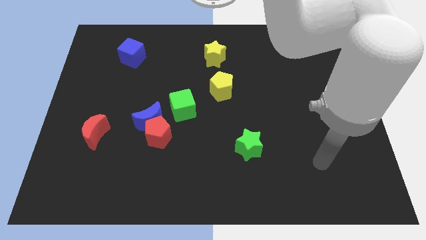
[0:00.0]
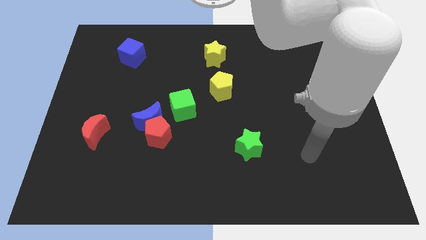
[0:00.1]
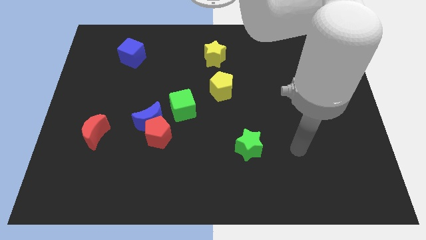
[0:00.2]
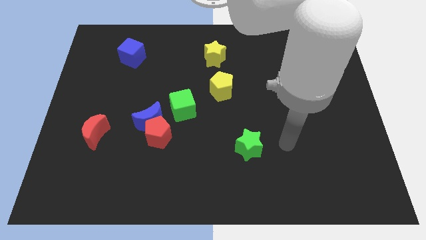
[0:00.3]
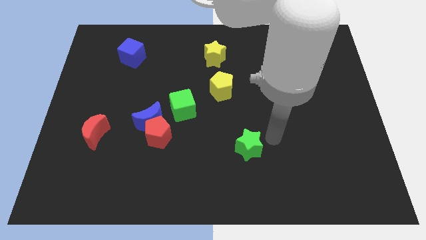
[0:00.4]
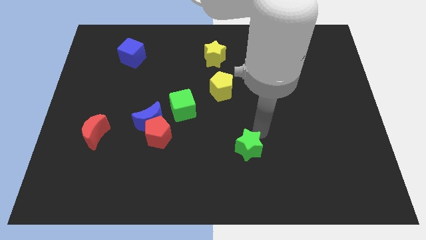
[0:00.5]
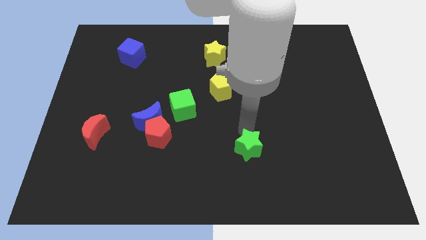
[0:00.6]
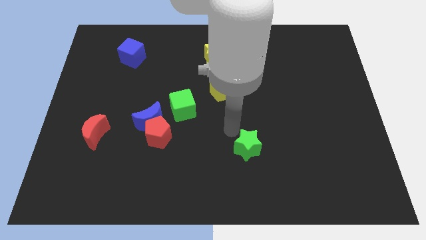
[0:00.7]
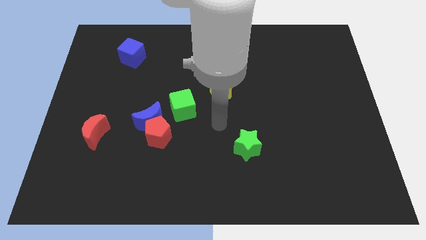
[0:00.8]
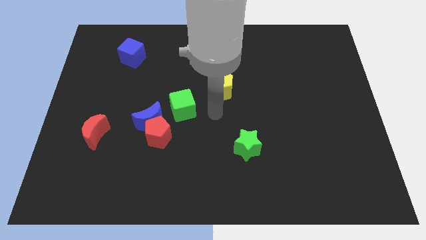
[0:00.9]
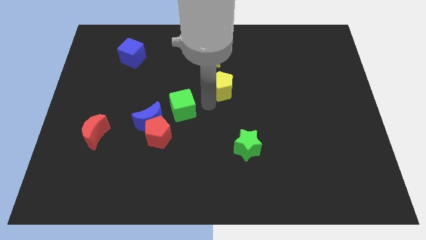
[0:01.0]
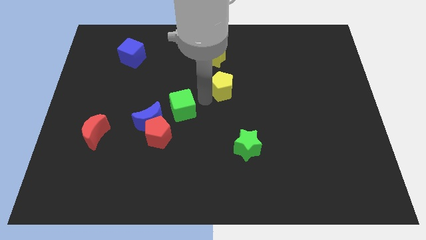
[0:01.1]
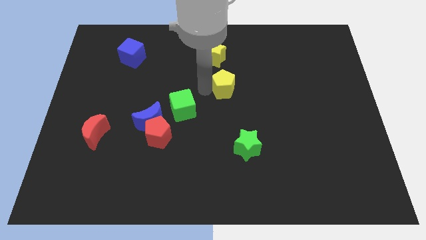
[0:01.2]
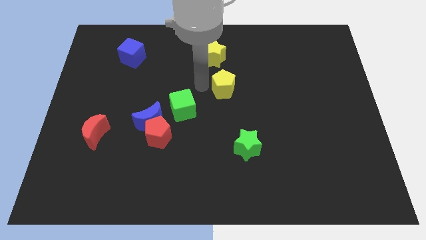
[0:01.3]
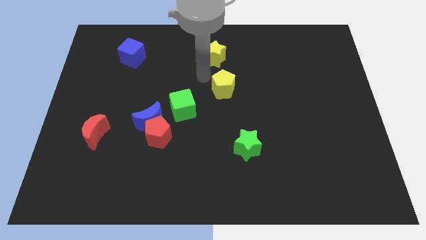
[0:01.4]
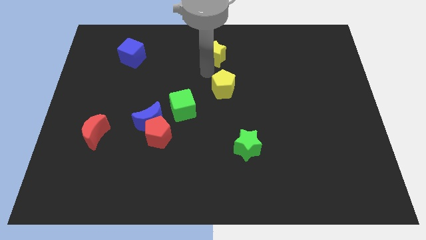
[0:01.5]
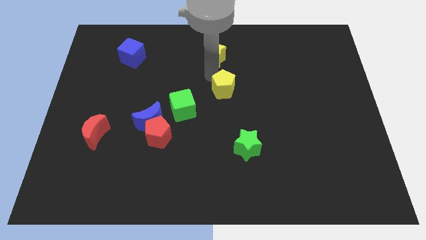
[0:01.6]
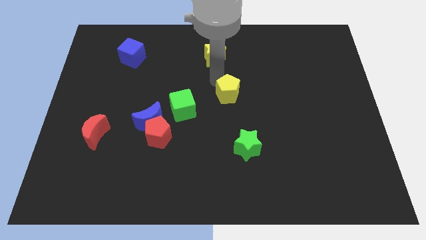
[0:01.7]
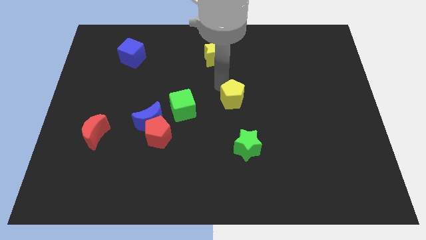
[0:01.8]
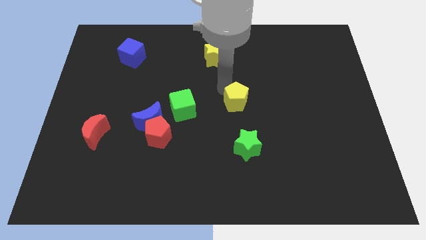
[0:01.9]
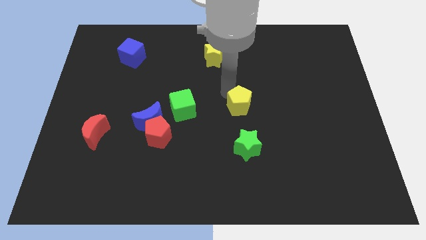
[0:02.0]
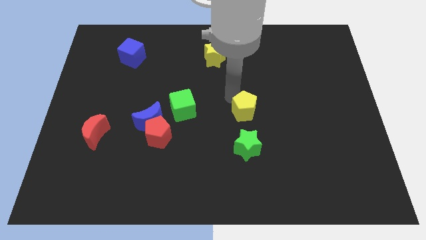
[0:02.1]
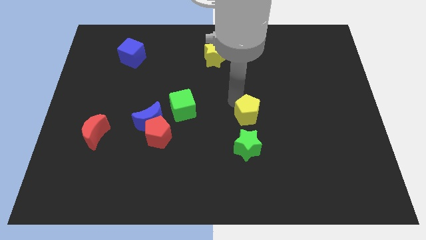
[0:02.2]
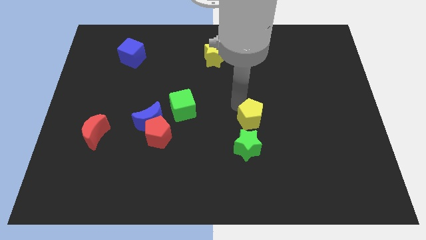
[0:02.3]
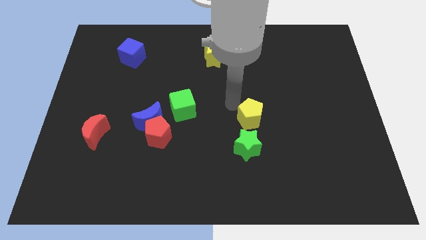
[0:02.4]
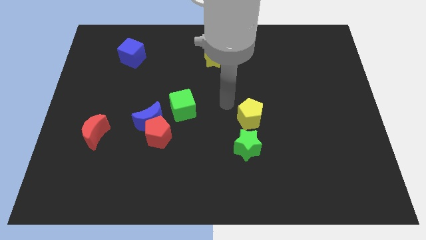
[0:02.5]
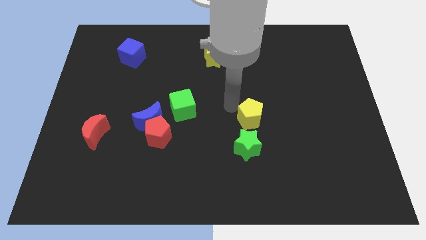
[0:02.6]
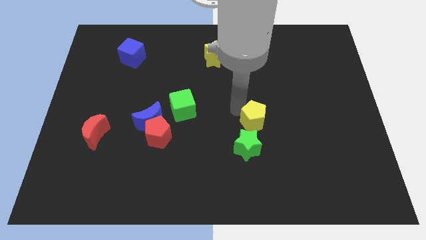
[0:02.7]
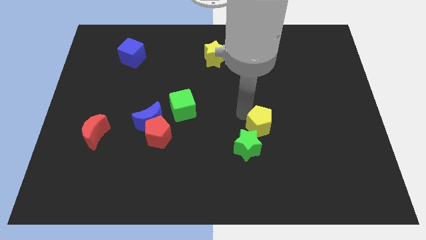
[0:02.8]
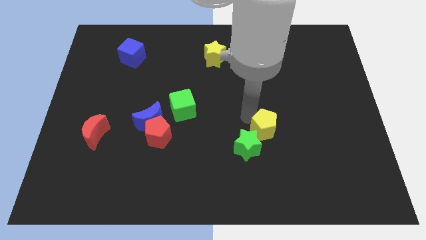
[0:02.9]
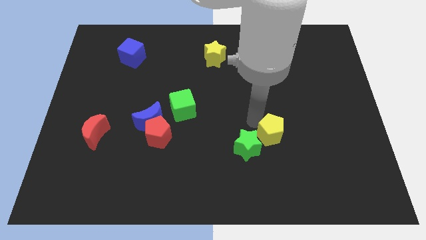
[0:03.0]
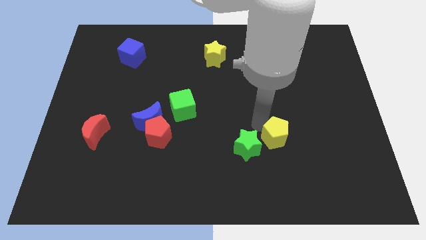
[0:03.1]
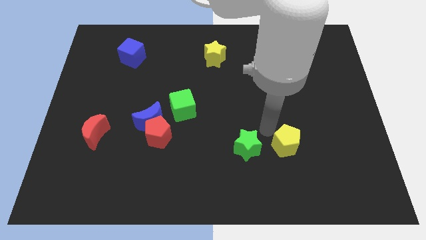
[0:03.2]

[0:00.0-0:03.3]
move the yellow pentagon diagonally downwards and to the right

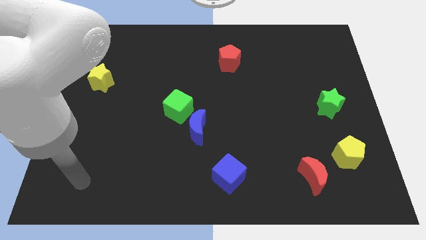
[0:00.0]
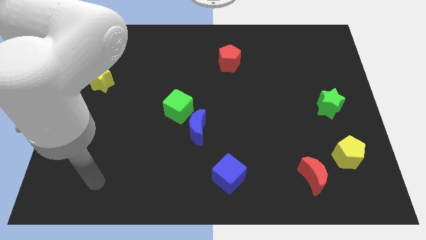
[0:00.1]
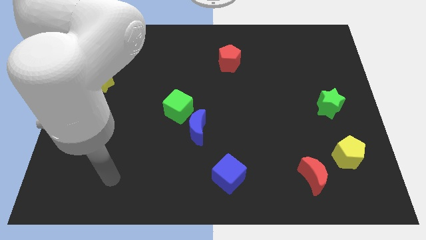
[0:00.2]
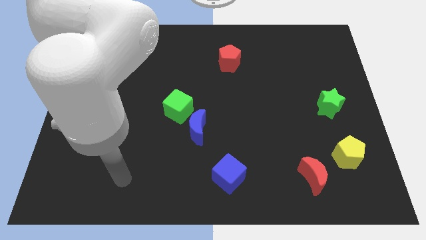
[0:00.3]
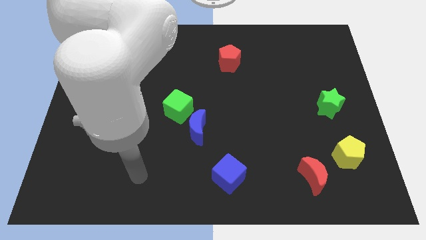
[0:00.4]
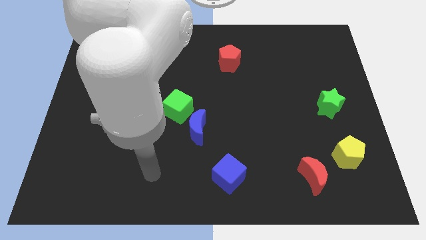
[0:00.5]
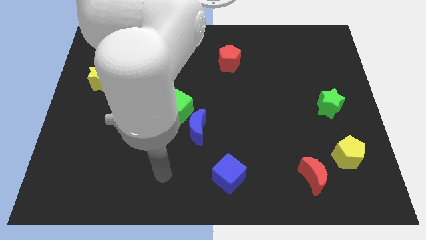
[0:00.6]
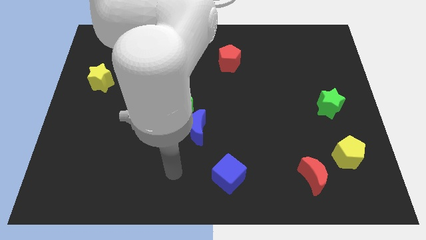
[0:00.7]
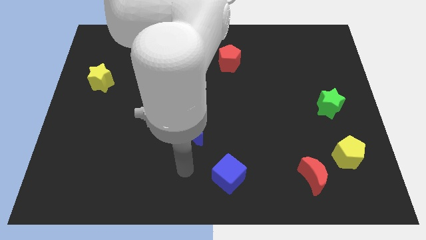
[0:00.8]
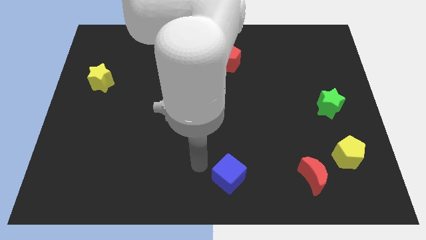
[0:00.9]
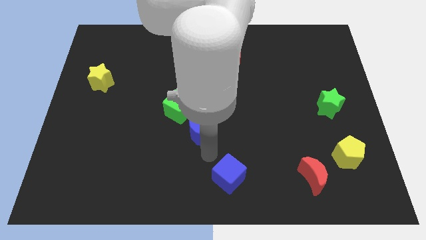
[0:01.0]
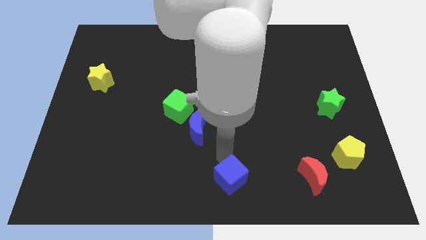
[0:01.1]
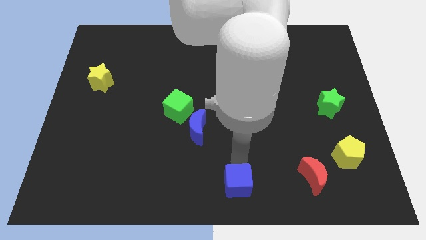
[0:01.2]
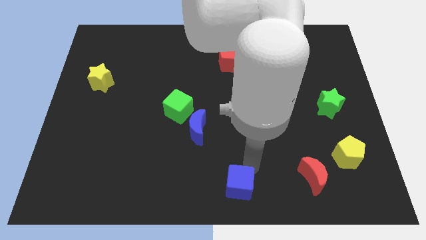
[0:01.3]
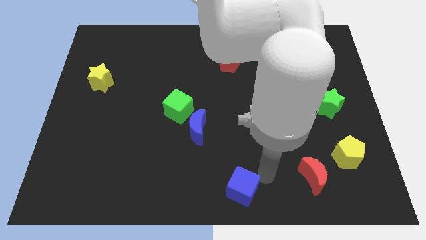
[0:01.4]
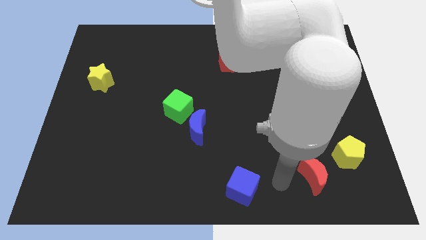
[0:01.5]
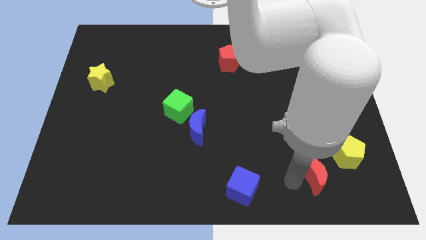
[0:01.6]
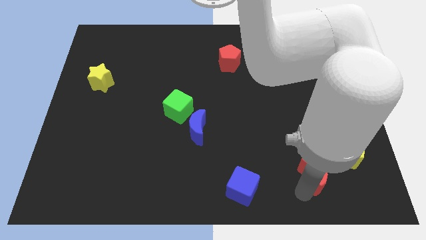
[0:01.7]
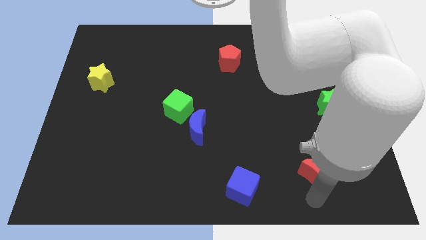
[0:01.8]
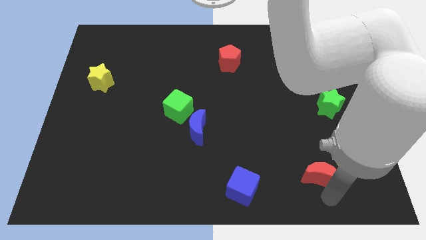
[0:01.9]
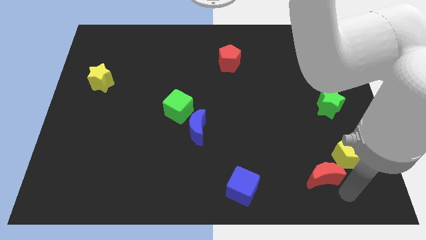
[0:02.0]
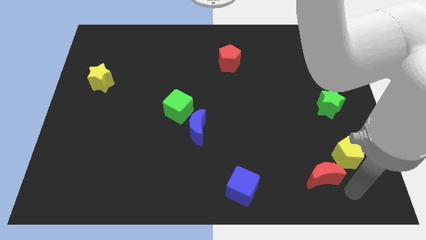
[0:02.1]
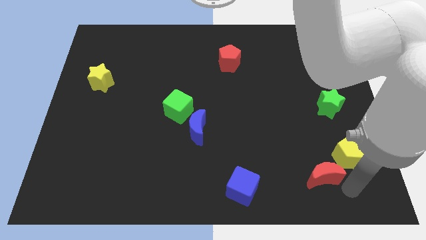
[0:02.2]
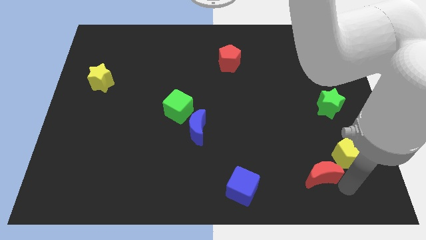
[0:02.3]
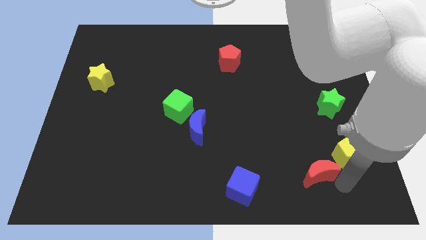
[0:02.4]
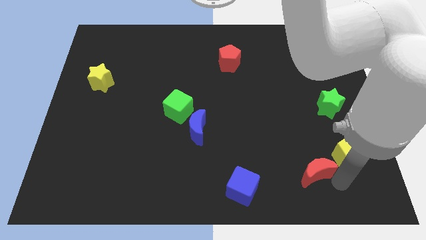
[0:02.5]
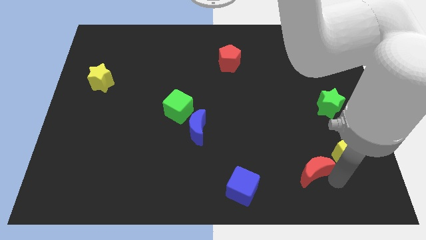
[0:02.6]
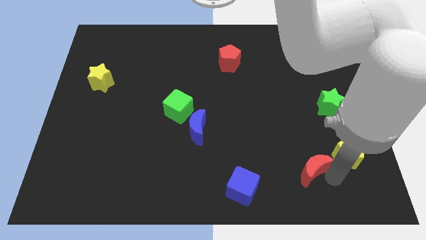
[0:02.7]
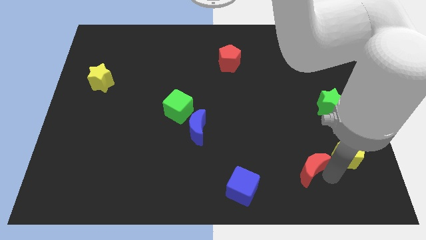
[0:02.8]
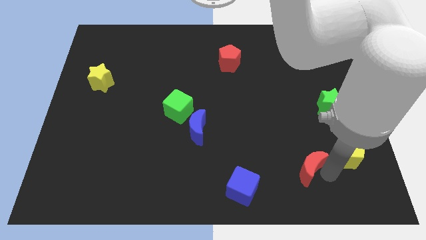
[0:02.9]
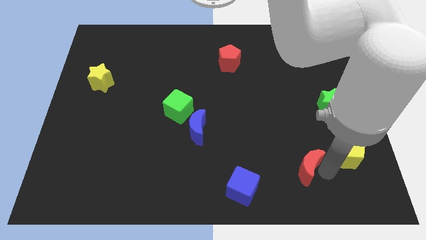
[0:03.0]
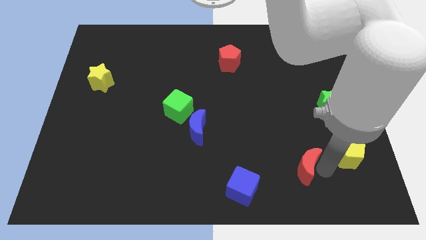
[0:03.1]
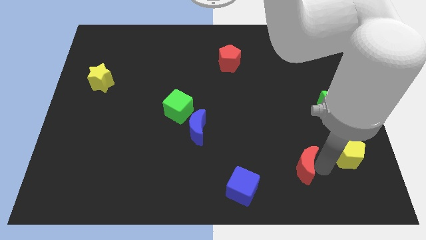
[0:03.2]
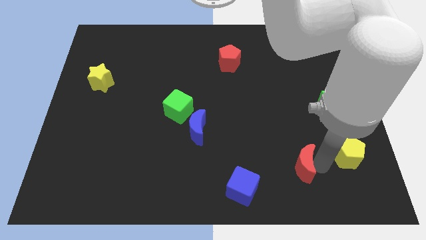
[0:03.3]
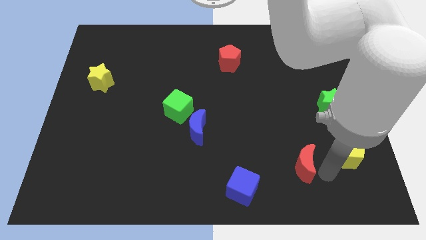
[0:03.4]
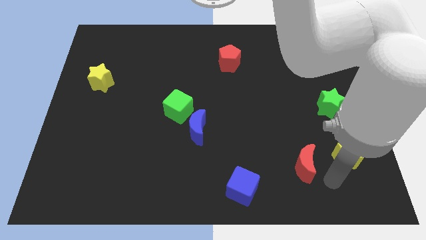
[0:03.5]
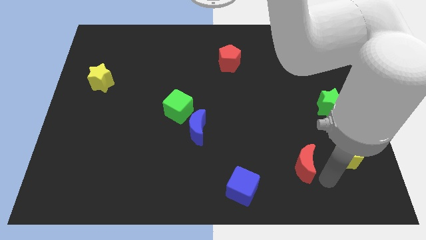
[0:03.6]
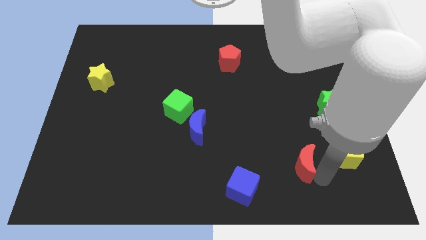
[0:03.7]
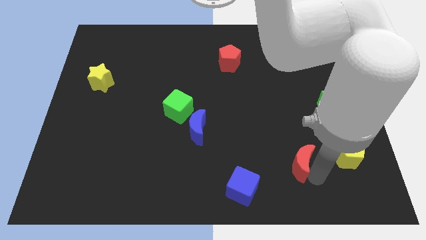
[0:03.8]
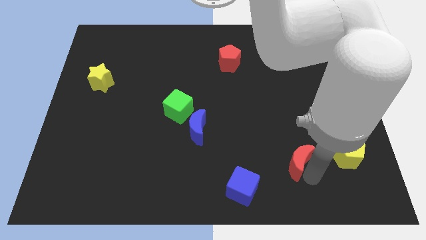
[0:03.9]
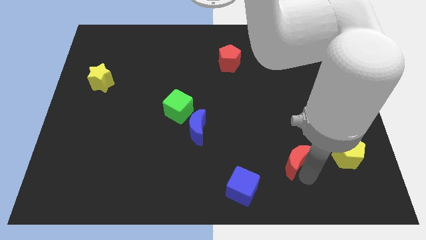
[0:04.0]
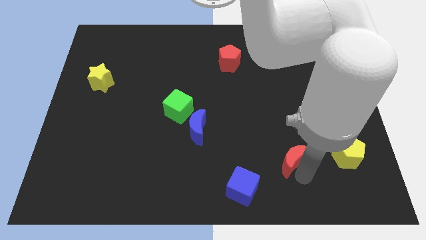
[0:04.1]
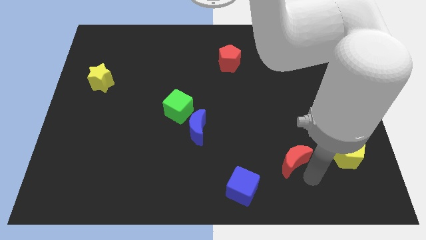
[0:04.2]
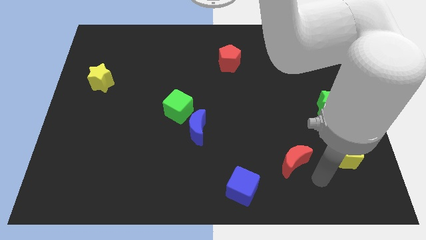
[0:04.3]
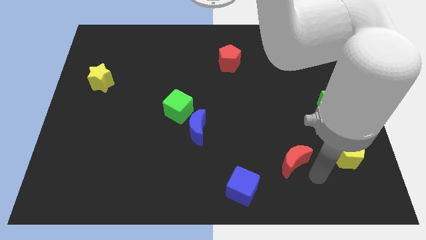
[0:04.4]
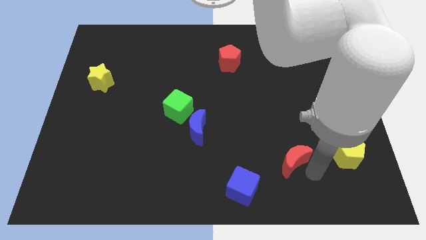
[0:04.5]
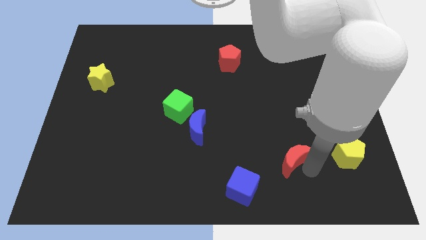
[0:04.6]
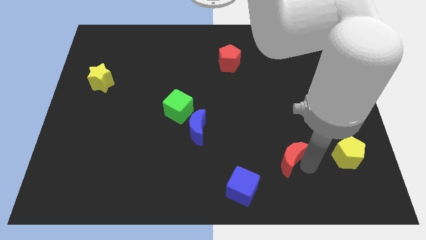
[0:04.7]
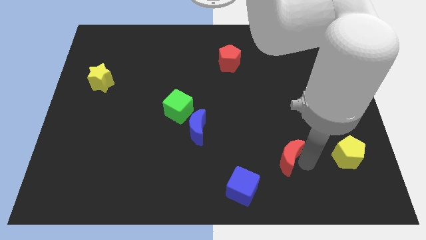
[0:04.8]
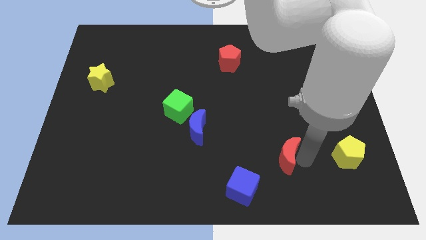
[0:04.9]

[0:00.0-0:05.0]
slide the red moon upwards and then to the left a bit
